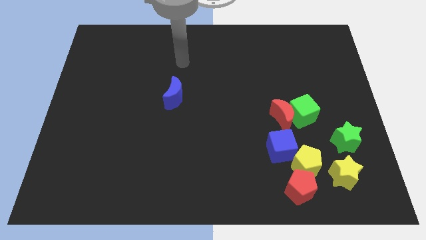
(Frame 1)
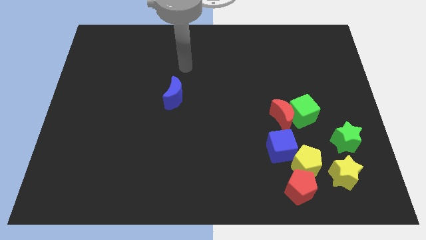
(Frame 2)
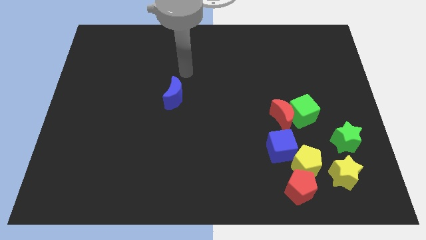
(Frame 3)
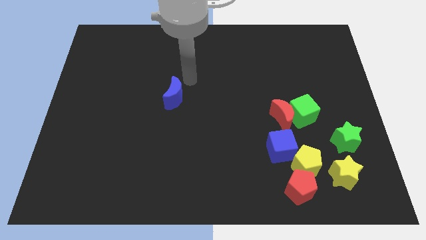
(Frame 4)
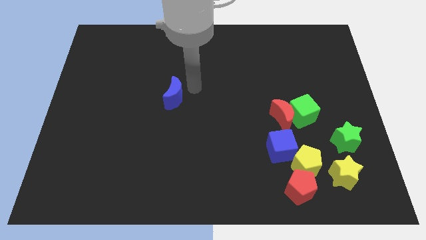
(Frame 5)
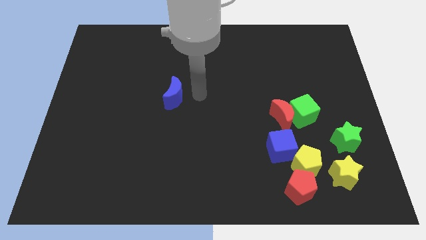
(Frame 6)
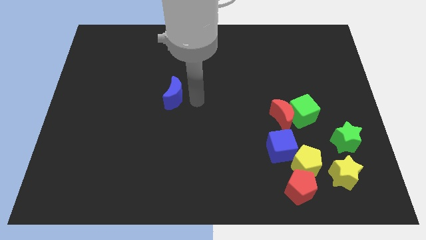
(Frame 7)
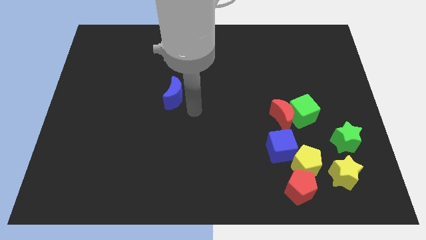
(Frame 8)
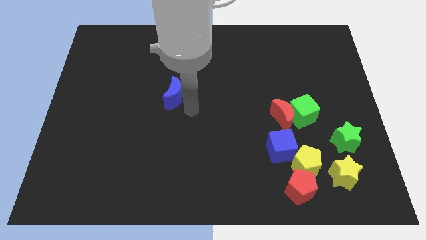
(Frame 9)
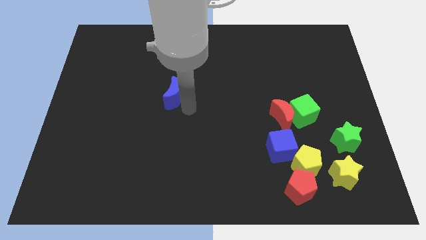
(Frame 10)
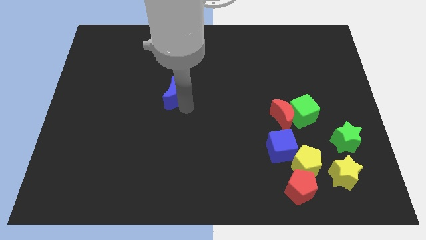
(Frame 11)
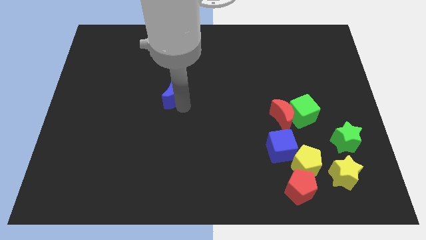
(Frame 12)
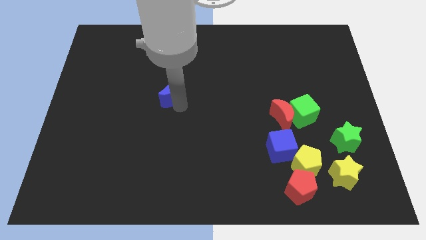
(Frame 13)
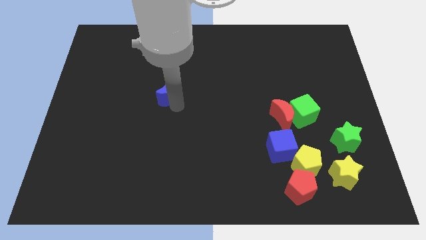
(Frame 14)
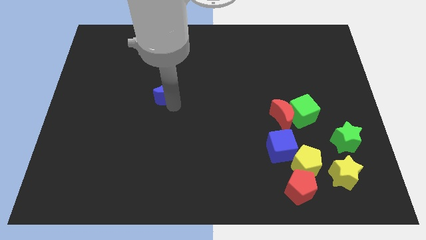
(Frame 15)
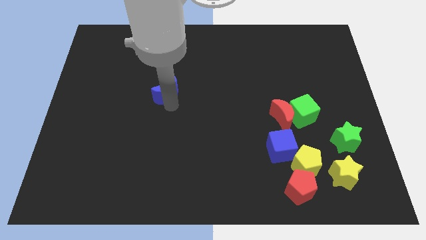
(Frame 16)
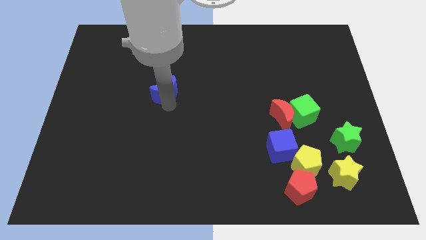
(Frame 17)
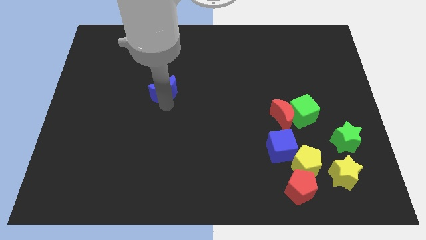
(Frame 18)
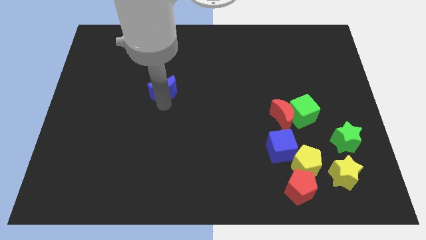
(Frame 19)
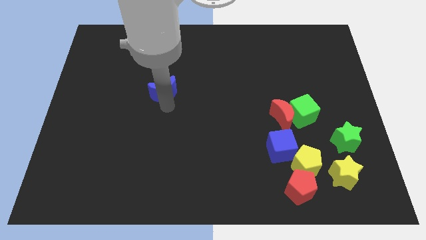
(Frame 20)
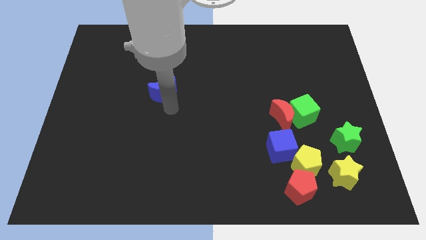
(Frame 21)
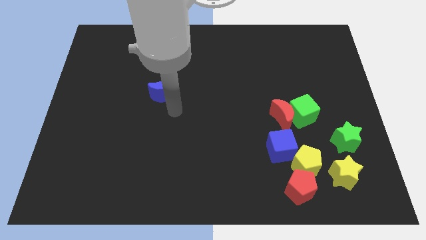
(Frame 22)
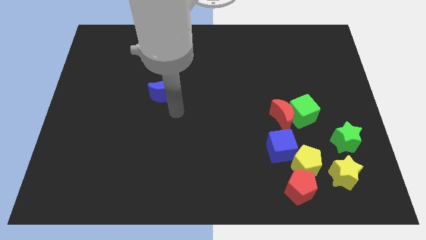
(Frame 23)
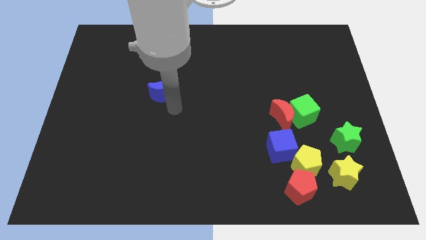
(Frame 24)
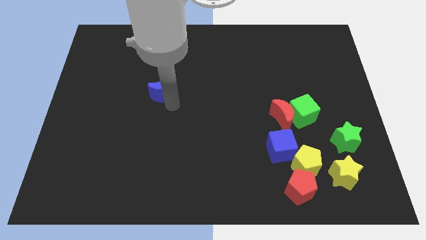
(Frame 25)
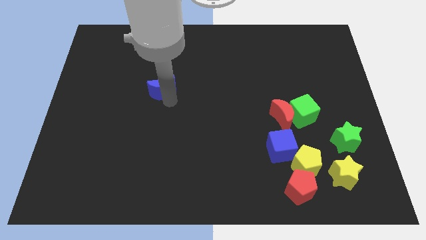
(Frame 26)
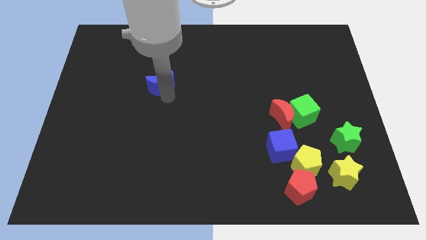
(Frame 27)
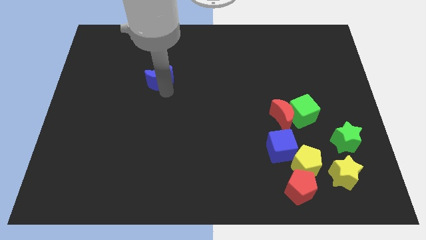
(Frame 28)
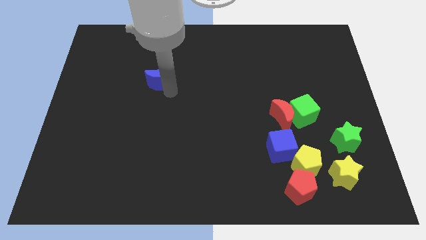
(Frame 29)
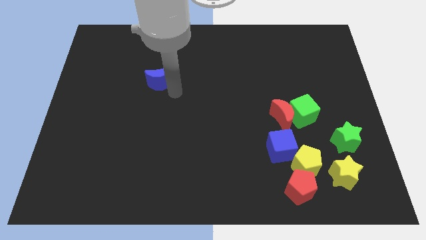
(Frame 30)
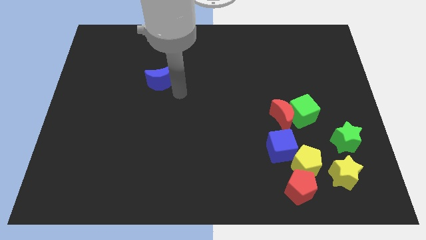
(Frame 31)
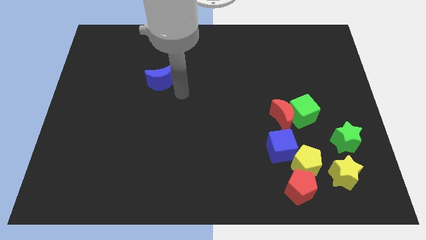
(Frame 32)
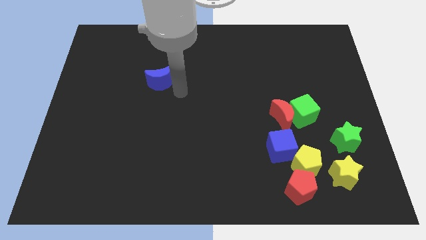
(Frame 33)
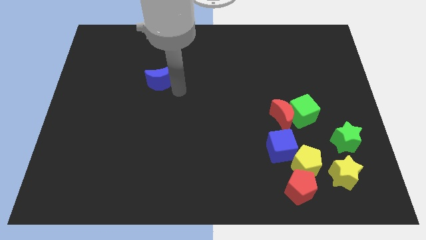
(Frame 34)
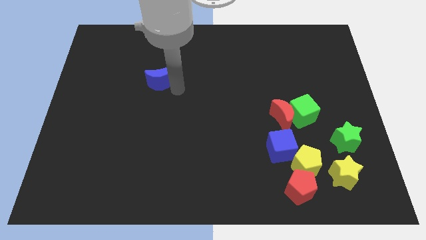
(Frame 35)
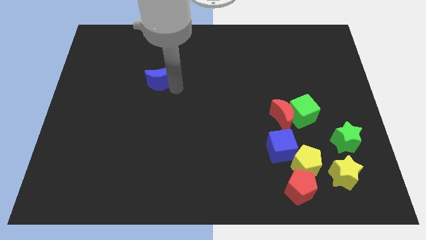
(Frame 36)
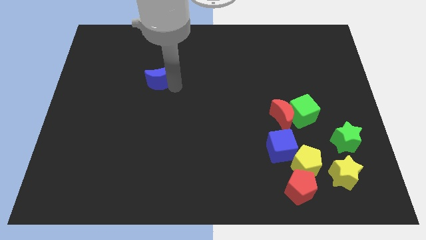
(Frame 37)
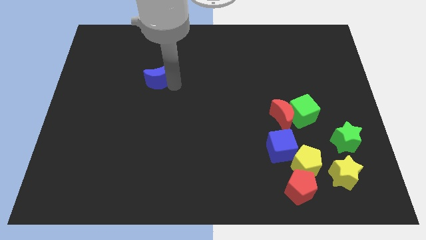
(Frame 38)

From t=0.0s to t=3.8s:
slightly slide the blue moon diagonally upwards and to the left

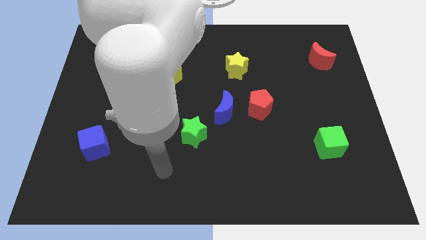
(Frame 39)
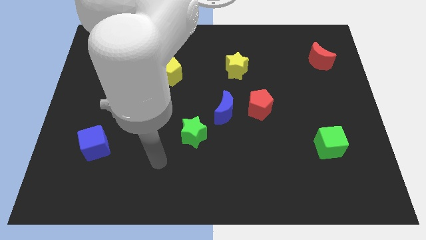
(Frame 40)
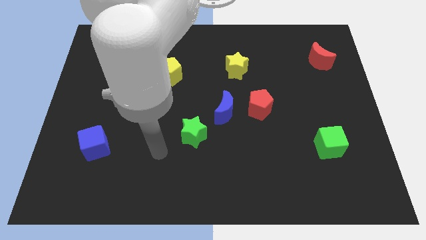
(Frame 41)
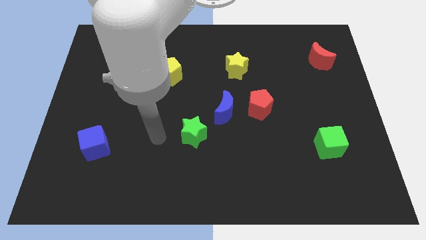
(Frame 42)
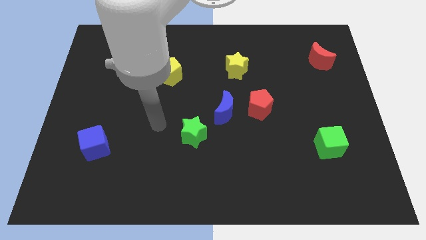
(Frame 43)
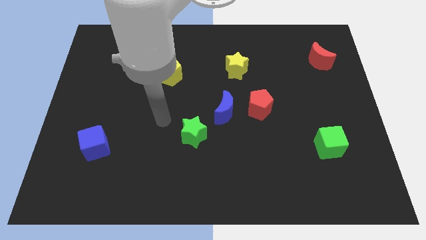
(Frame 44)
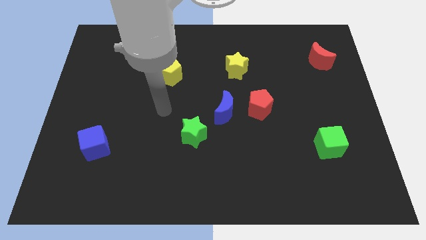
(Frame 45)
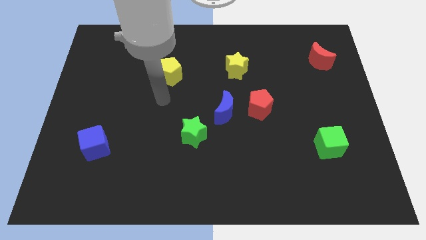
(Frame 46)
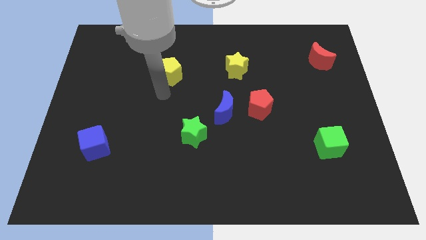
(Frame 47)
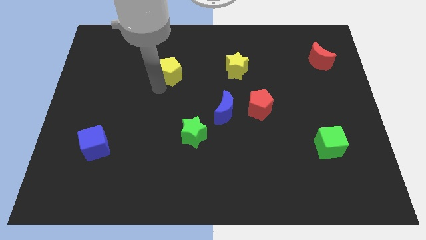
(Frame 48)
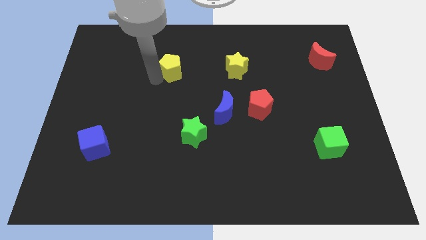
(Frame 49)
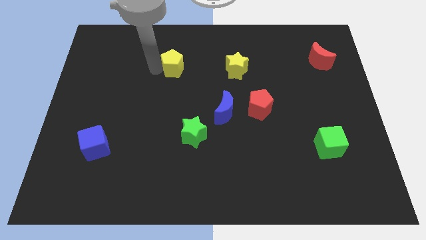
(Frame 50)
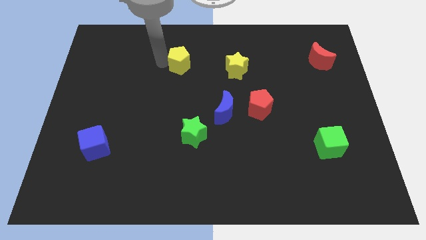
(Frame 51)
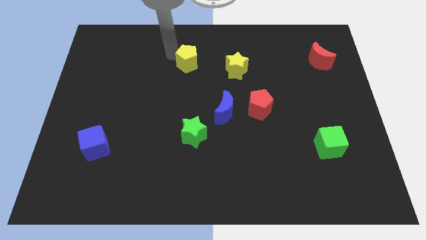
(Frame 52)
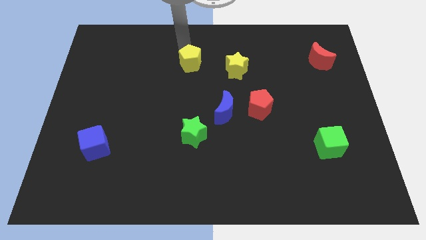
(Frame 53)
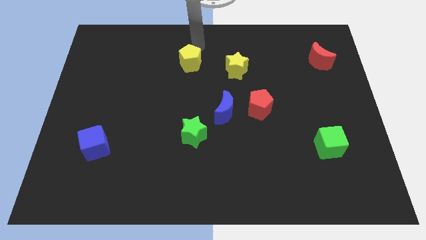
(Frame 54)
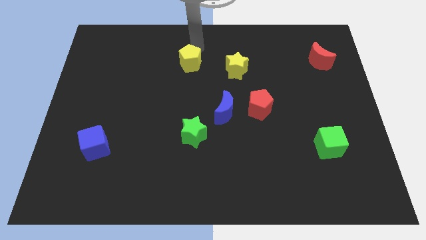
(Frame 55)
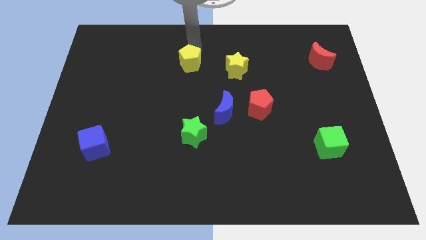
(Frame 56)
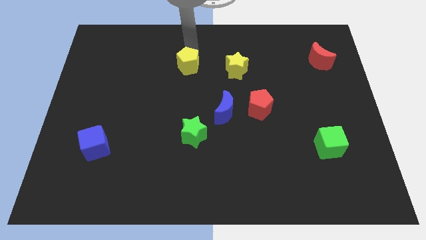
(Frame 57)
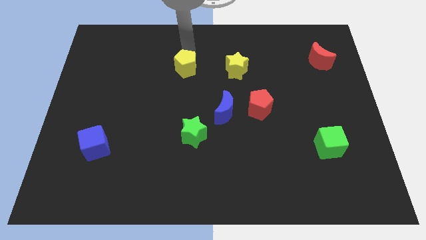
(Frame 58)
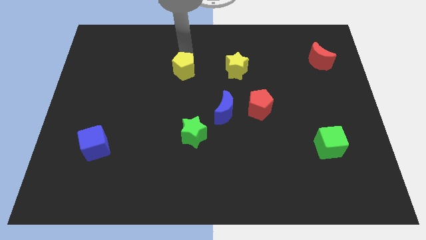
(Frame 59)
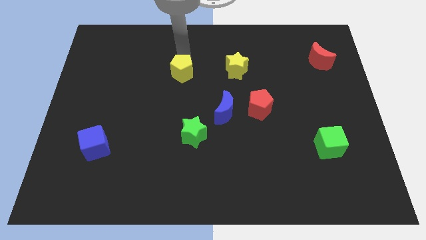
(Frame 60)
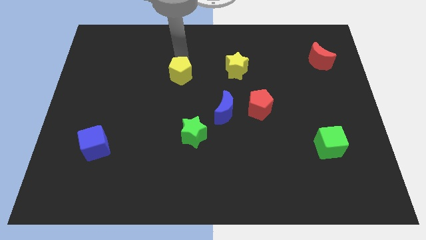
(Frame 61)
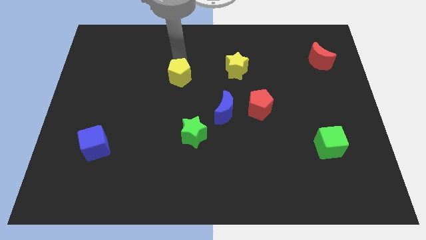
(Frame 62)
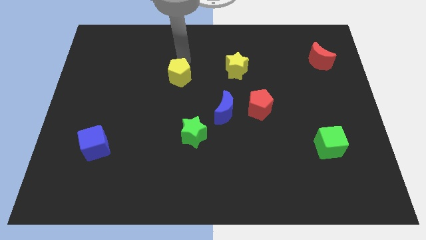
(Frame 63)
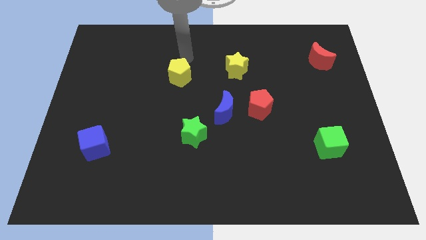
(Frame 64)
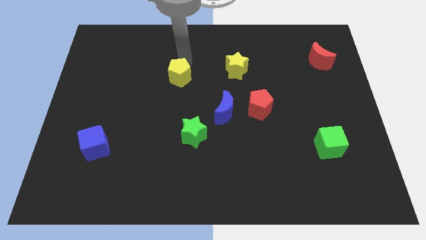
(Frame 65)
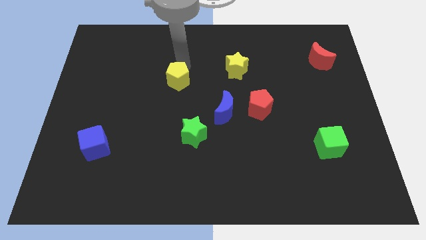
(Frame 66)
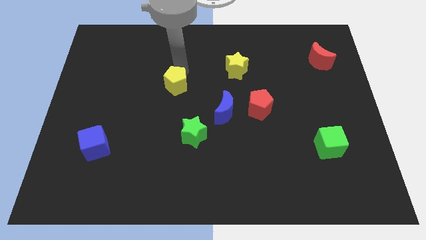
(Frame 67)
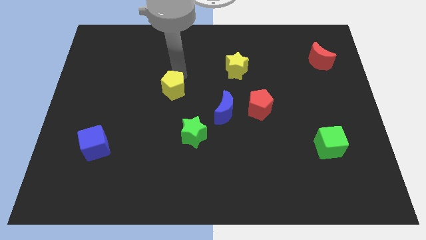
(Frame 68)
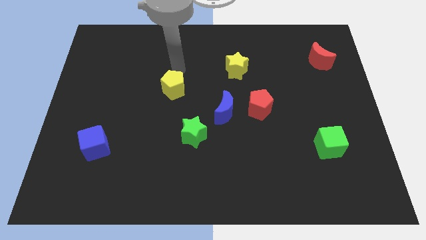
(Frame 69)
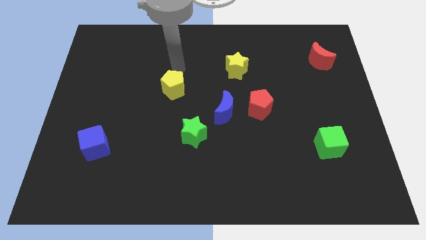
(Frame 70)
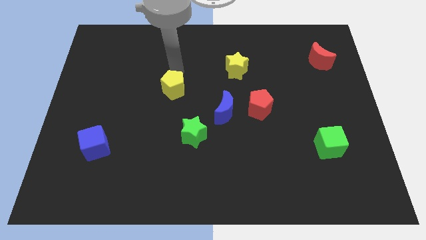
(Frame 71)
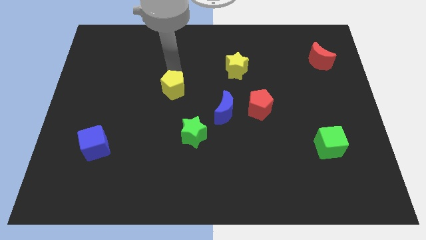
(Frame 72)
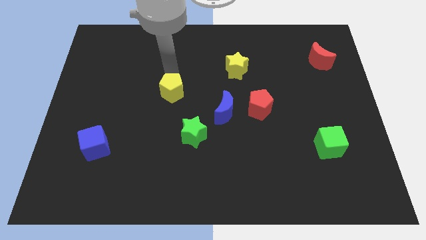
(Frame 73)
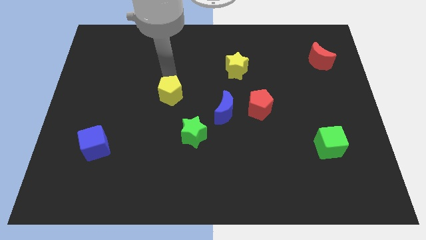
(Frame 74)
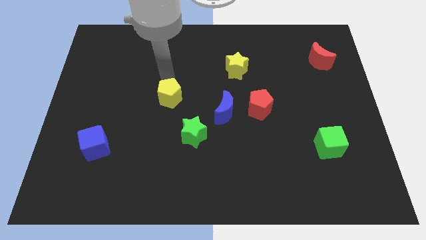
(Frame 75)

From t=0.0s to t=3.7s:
slightly slide the yellow pentagon downwards

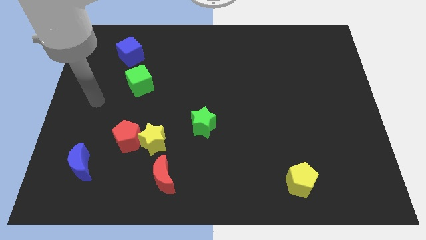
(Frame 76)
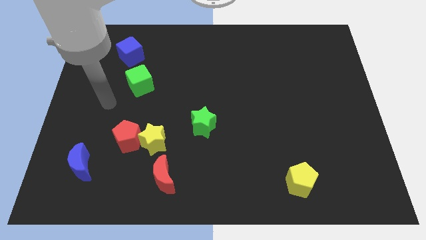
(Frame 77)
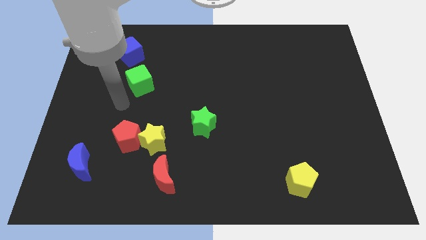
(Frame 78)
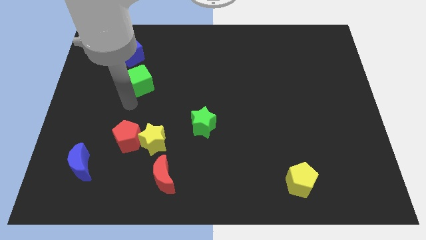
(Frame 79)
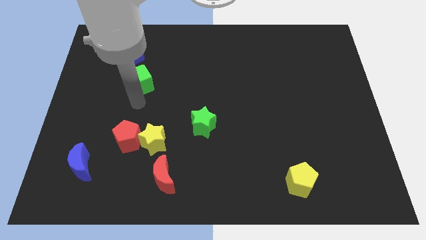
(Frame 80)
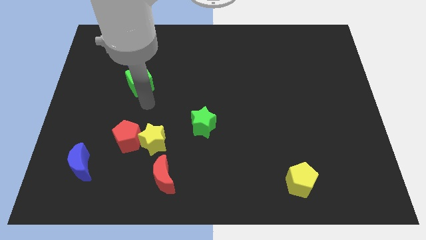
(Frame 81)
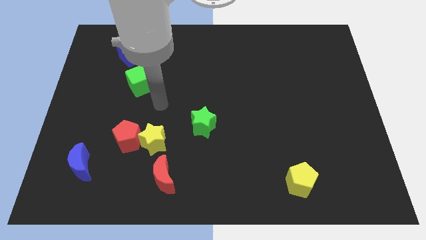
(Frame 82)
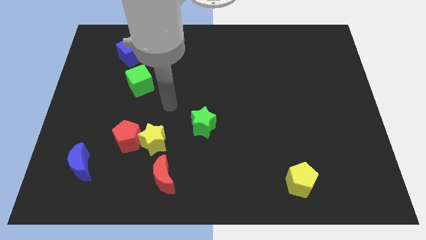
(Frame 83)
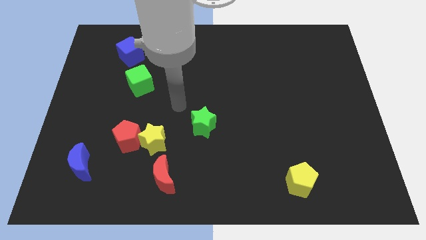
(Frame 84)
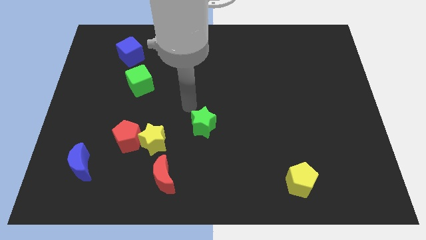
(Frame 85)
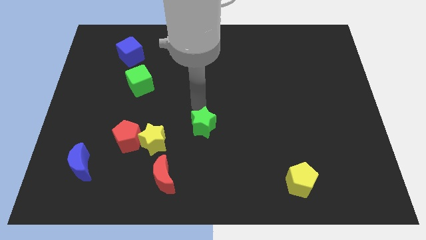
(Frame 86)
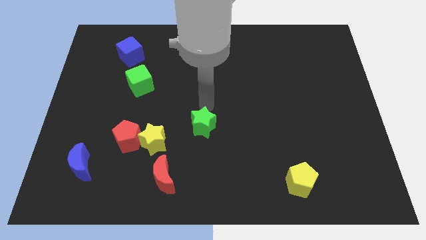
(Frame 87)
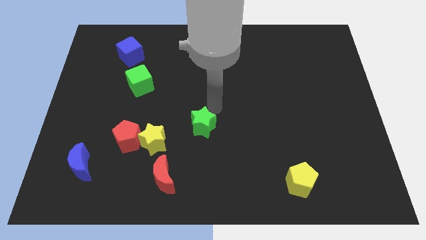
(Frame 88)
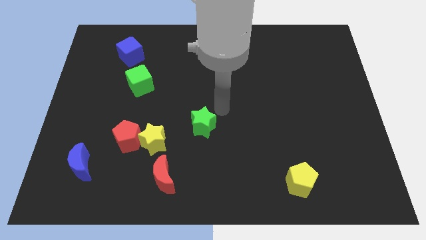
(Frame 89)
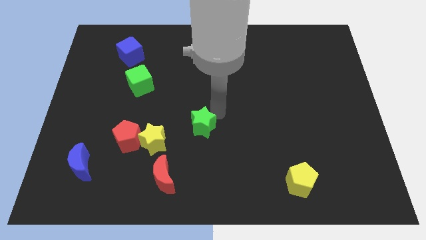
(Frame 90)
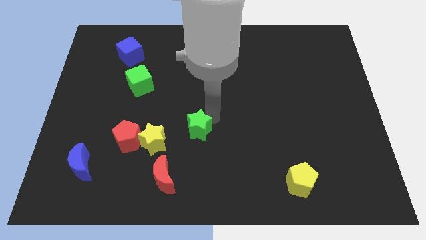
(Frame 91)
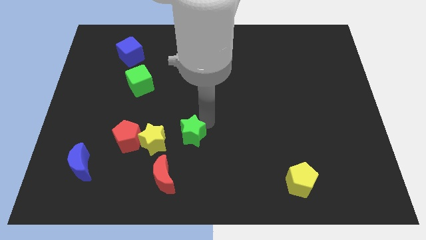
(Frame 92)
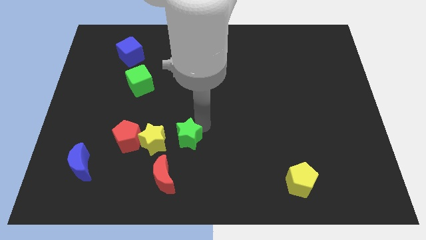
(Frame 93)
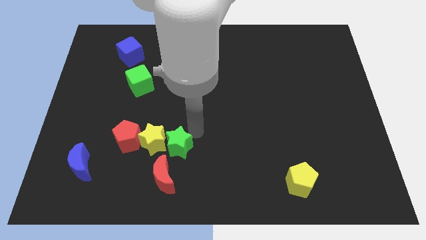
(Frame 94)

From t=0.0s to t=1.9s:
slide the green star down and then left somewhat
